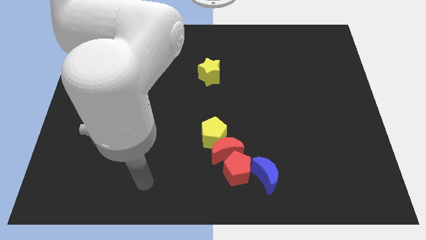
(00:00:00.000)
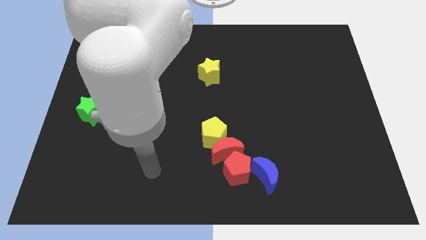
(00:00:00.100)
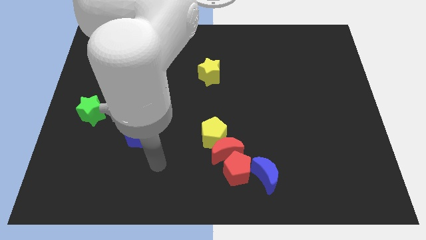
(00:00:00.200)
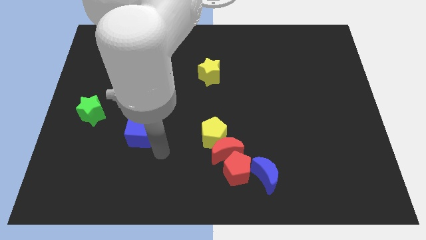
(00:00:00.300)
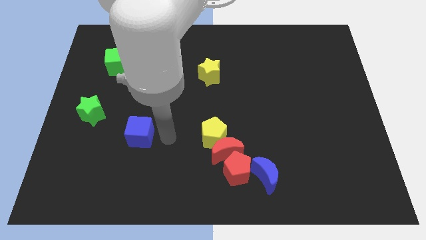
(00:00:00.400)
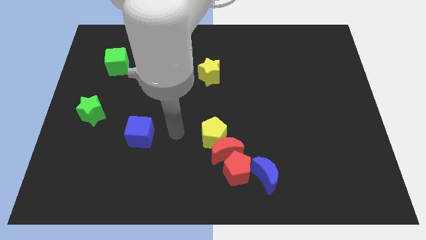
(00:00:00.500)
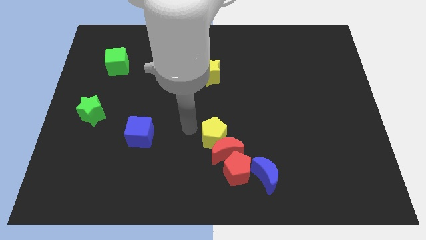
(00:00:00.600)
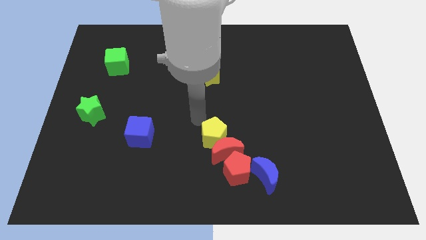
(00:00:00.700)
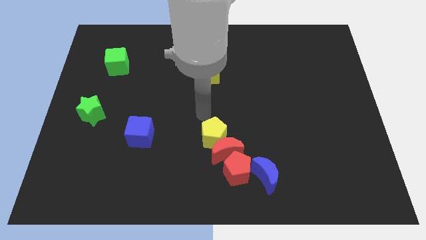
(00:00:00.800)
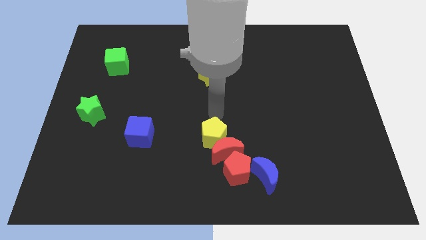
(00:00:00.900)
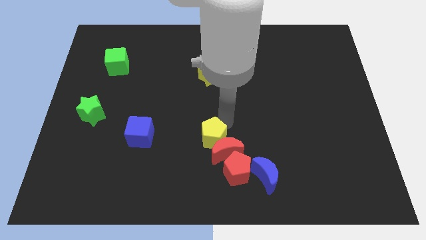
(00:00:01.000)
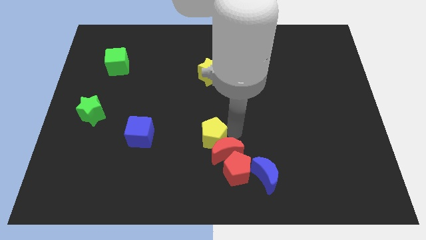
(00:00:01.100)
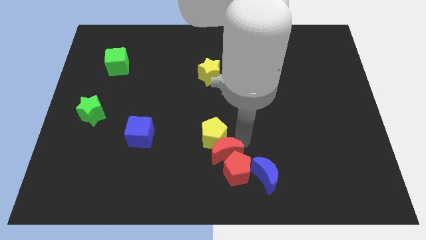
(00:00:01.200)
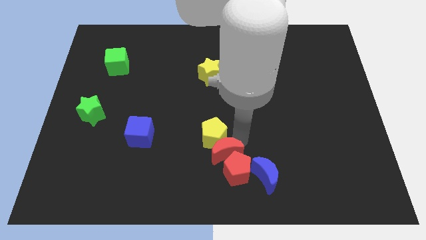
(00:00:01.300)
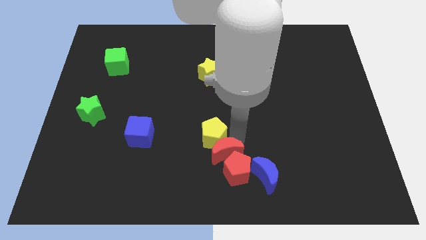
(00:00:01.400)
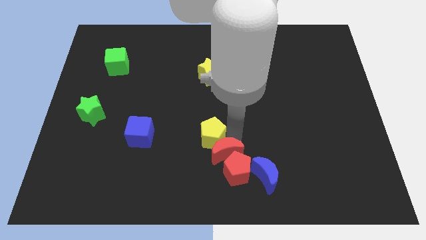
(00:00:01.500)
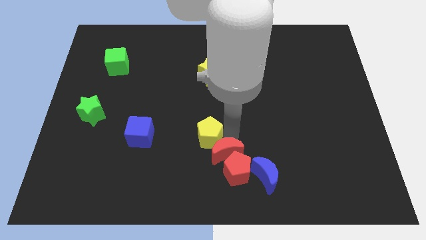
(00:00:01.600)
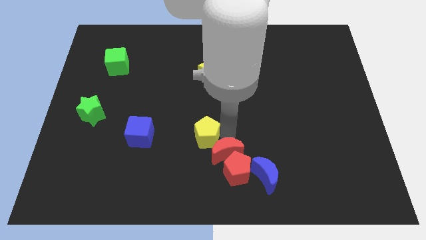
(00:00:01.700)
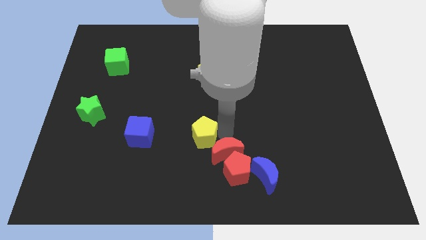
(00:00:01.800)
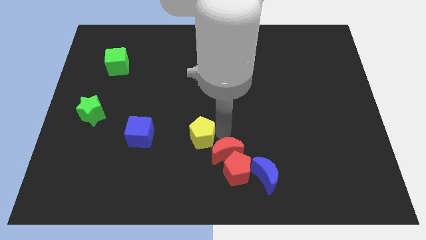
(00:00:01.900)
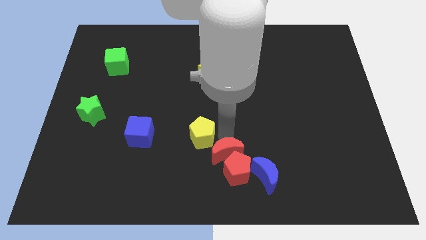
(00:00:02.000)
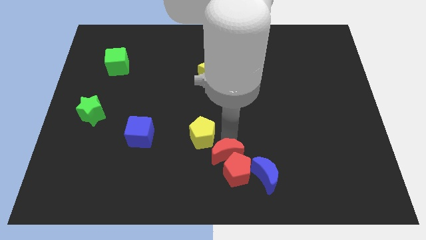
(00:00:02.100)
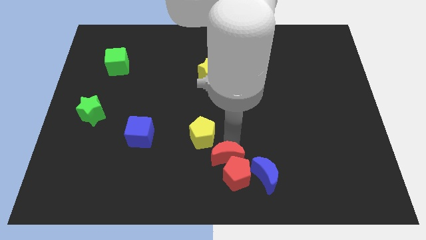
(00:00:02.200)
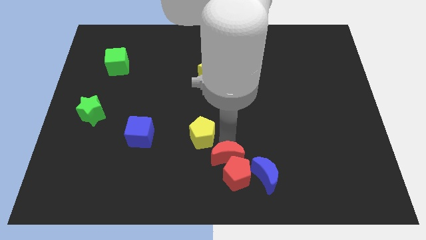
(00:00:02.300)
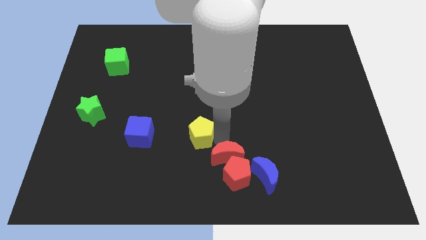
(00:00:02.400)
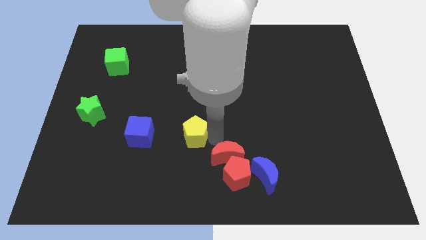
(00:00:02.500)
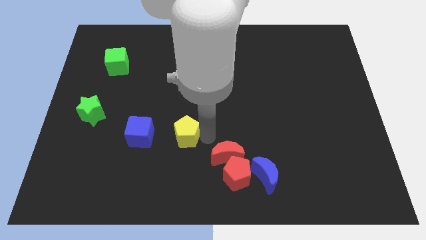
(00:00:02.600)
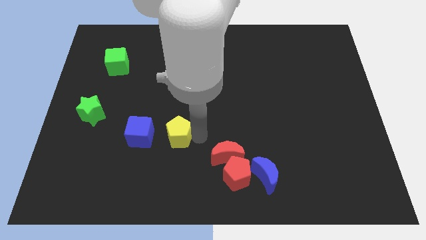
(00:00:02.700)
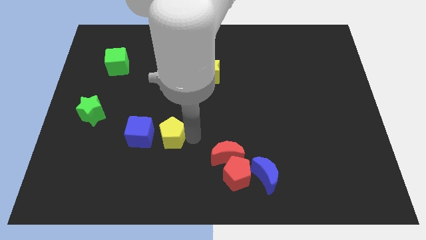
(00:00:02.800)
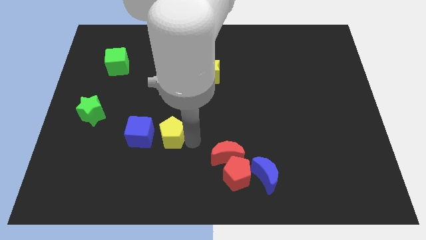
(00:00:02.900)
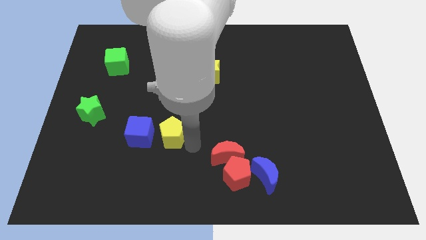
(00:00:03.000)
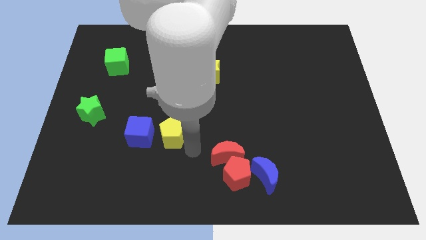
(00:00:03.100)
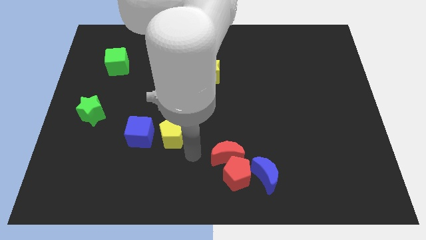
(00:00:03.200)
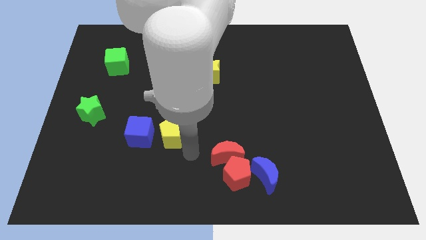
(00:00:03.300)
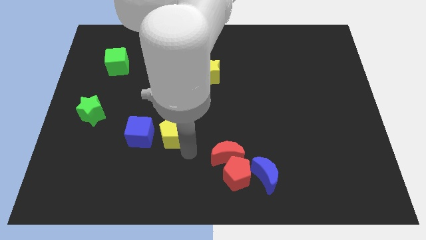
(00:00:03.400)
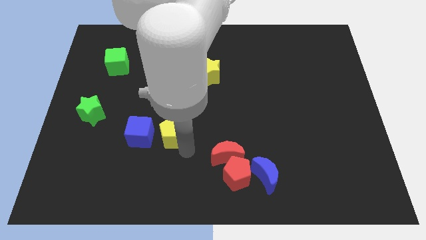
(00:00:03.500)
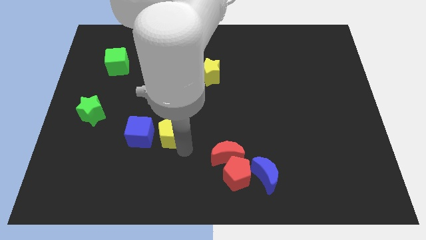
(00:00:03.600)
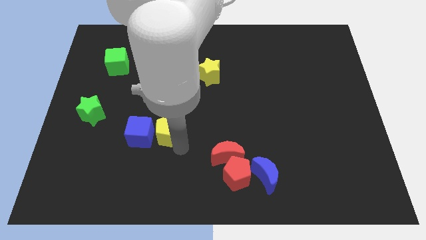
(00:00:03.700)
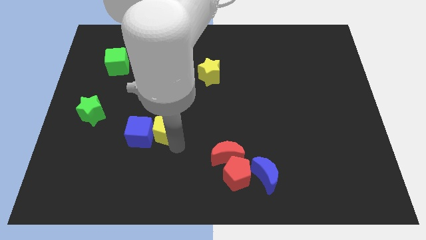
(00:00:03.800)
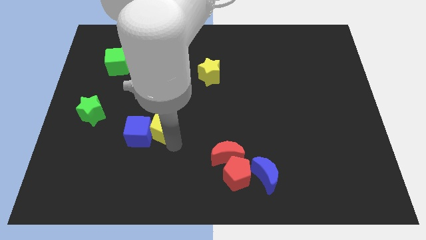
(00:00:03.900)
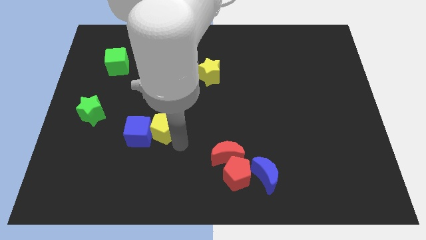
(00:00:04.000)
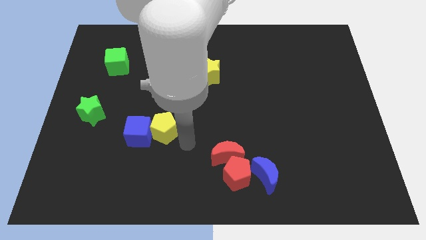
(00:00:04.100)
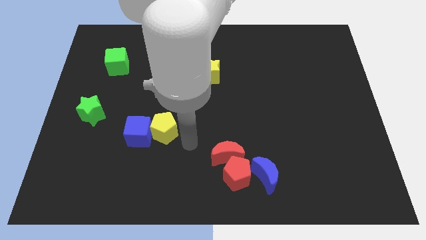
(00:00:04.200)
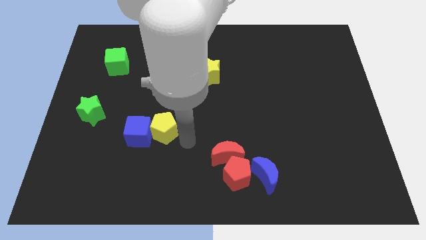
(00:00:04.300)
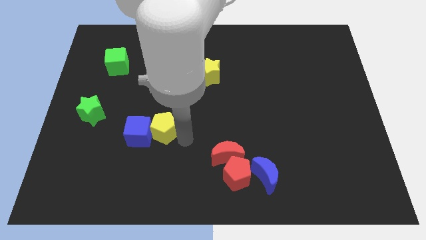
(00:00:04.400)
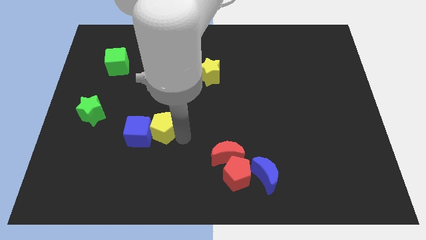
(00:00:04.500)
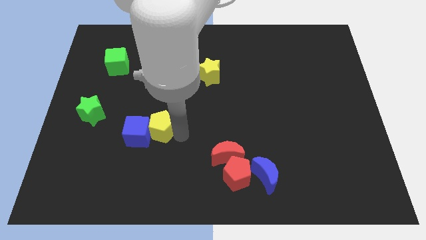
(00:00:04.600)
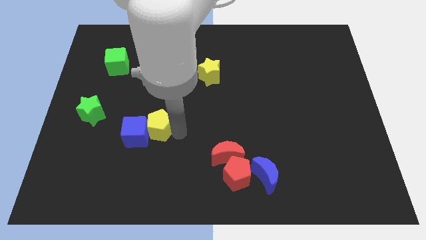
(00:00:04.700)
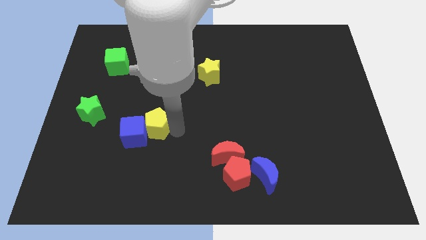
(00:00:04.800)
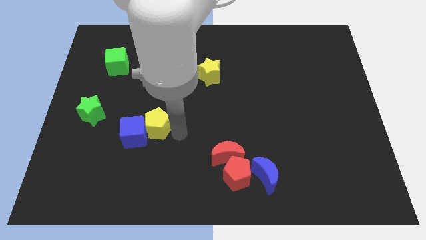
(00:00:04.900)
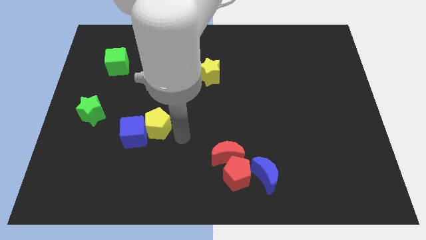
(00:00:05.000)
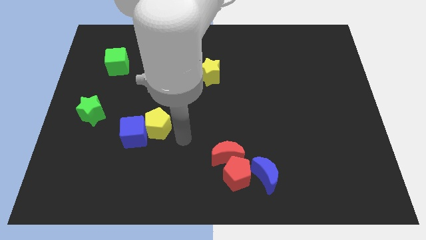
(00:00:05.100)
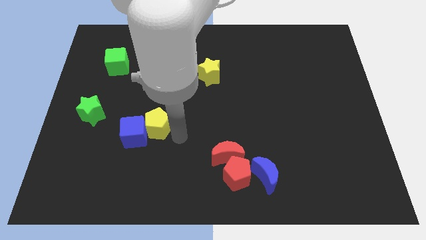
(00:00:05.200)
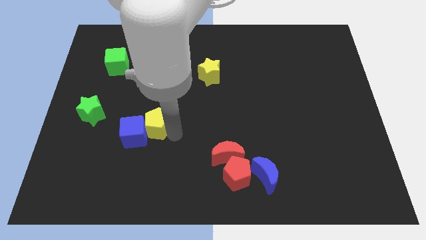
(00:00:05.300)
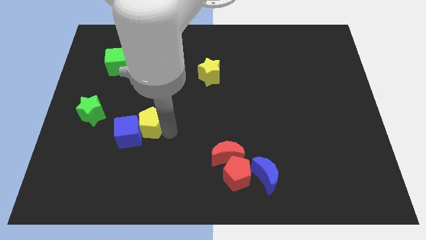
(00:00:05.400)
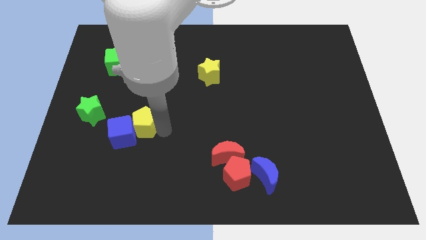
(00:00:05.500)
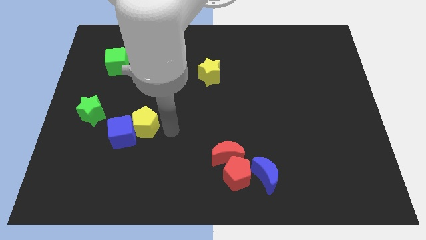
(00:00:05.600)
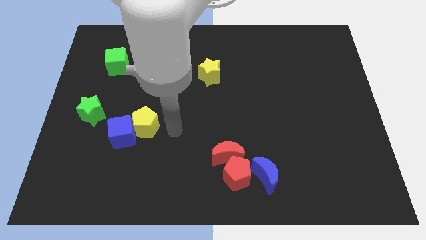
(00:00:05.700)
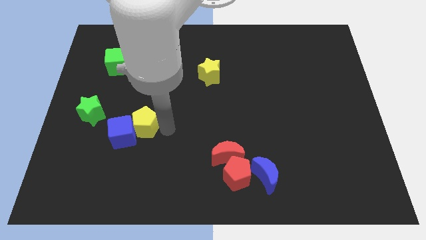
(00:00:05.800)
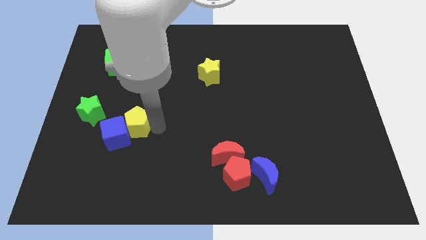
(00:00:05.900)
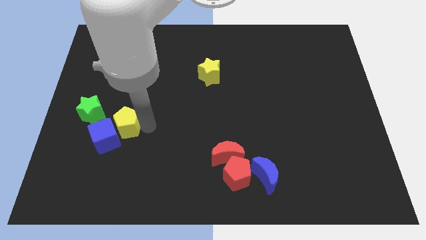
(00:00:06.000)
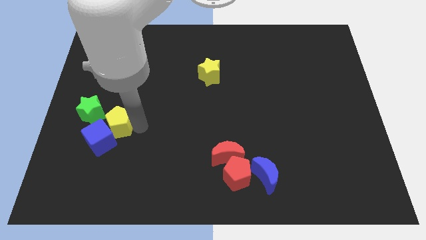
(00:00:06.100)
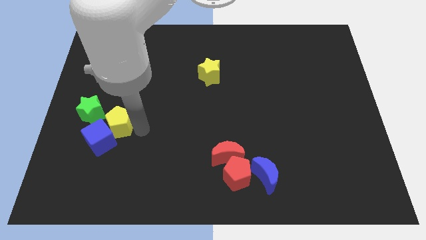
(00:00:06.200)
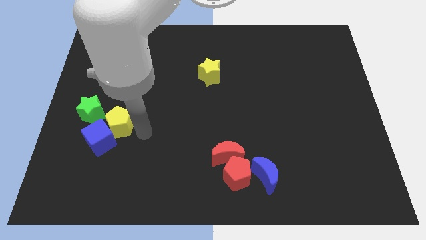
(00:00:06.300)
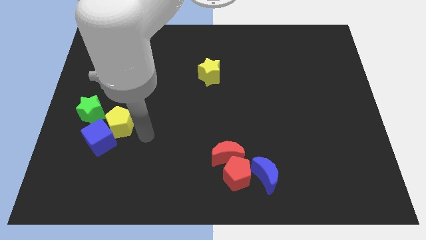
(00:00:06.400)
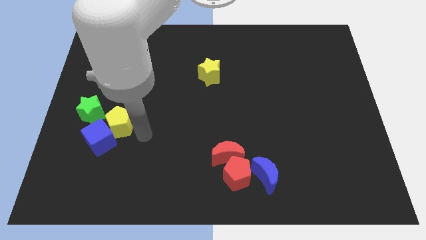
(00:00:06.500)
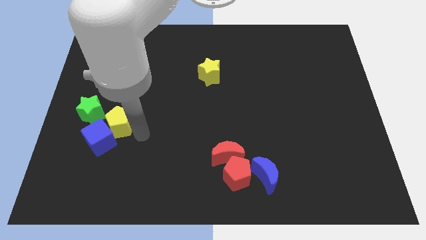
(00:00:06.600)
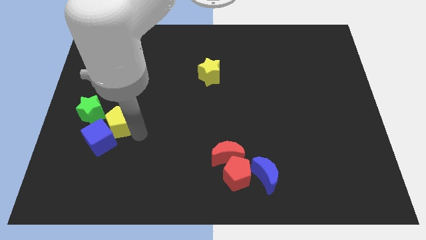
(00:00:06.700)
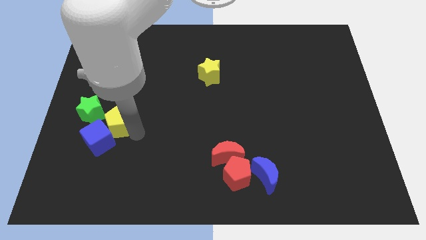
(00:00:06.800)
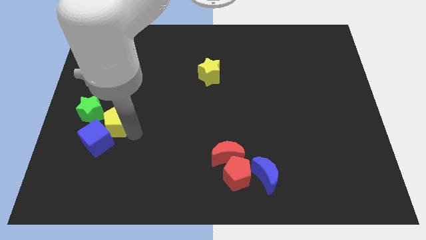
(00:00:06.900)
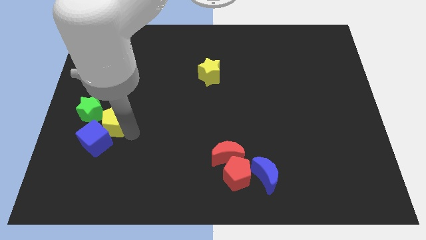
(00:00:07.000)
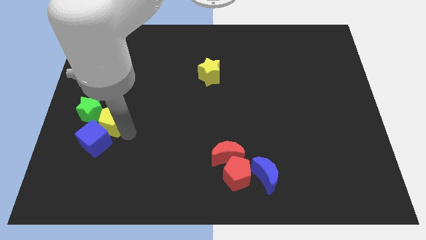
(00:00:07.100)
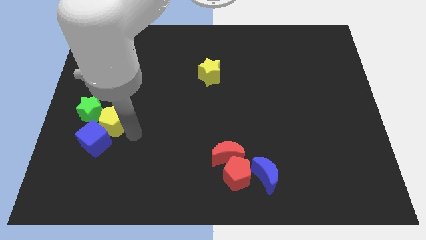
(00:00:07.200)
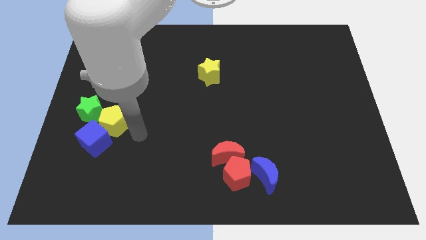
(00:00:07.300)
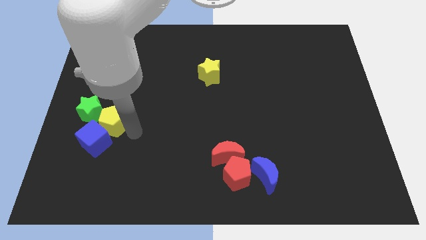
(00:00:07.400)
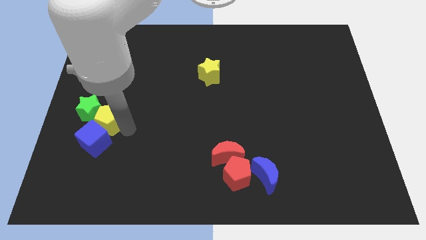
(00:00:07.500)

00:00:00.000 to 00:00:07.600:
slide the yellow pentagon to the green star

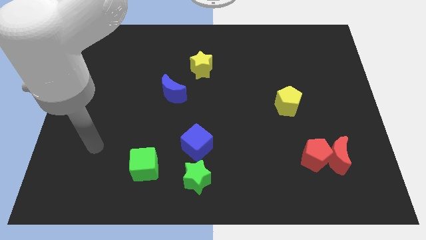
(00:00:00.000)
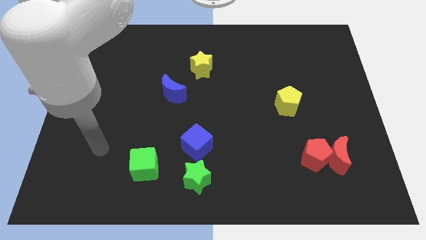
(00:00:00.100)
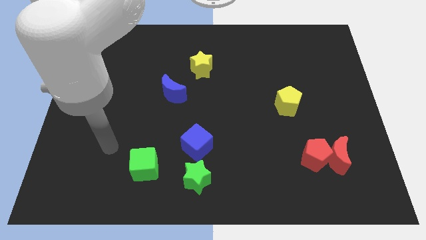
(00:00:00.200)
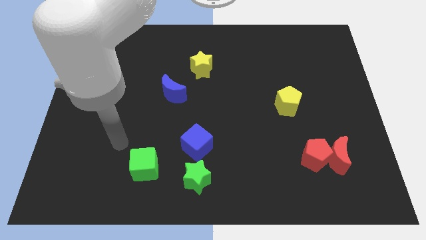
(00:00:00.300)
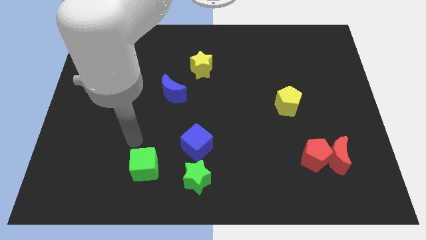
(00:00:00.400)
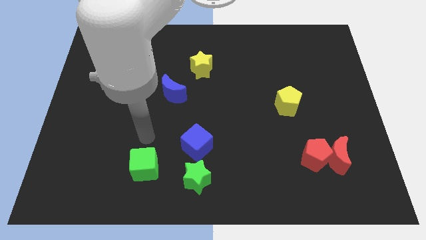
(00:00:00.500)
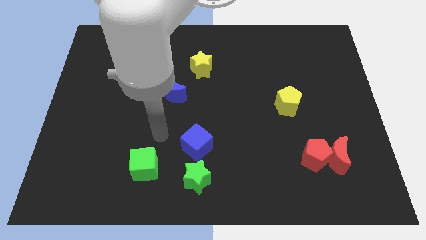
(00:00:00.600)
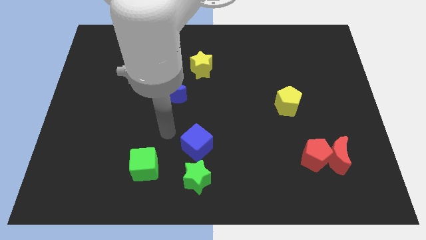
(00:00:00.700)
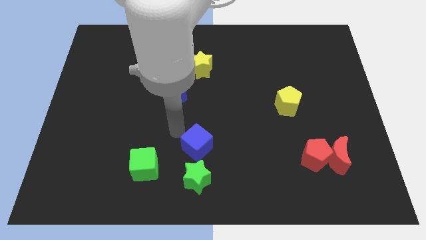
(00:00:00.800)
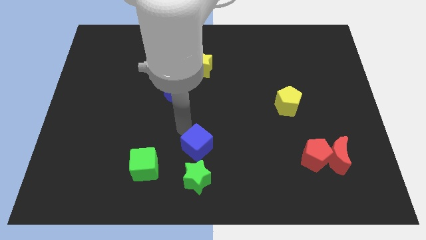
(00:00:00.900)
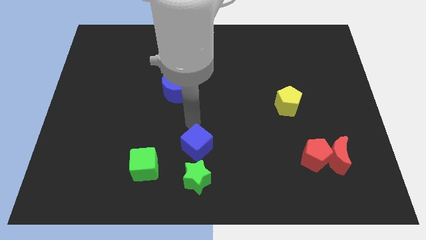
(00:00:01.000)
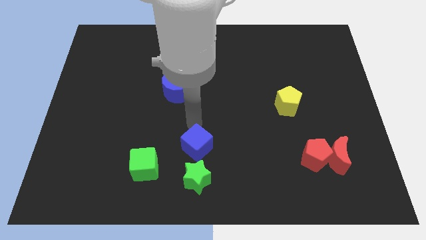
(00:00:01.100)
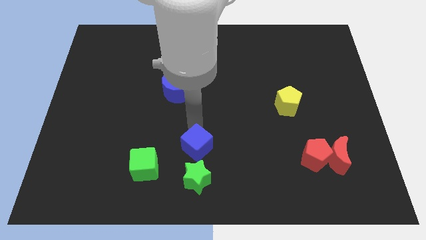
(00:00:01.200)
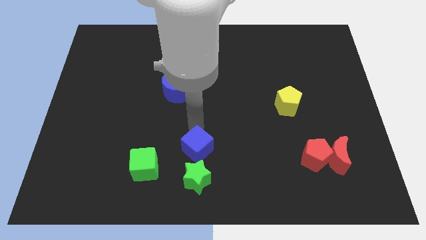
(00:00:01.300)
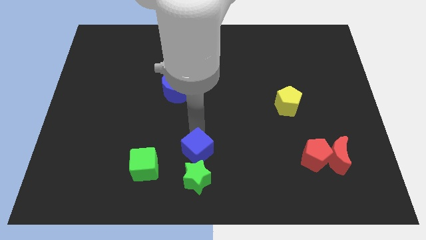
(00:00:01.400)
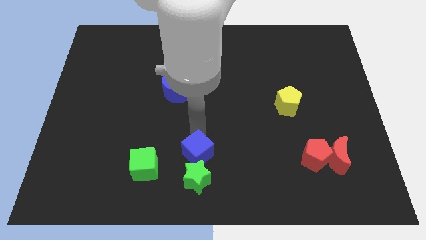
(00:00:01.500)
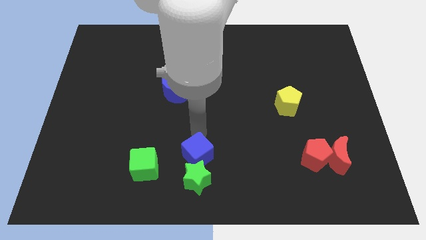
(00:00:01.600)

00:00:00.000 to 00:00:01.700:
put the blue cube to the green star
